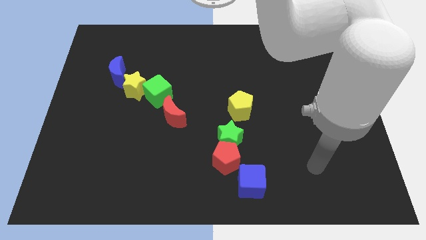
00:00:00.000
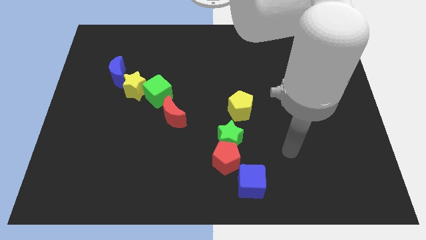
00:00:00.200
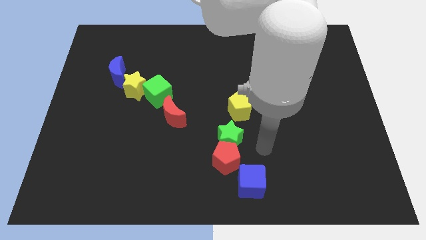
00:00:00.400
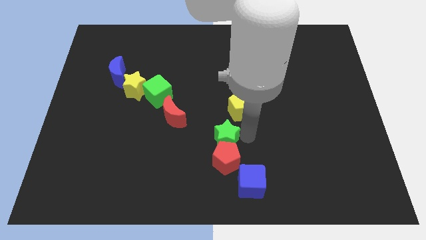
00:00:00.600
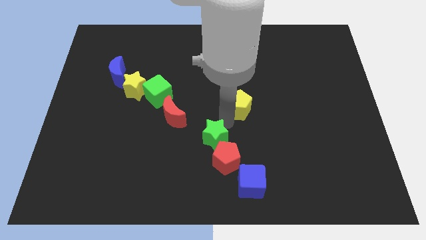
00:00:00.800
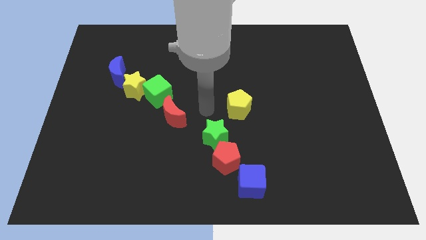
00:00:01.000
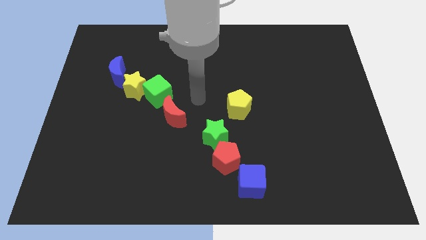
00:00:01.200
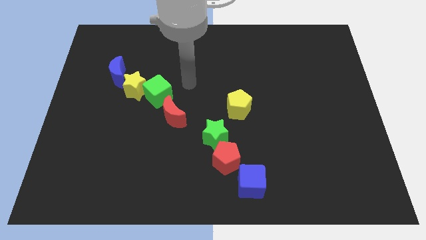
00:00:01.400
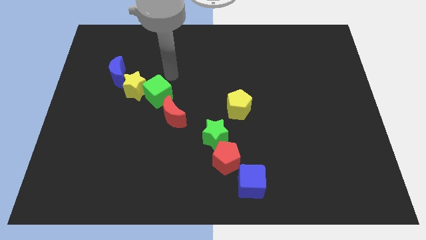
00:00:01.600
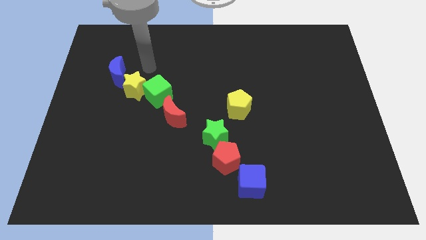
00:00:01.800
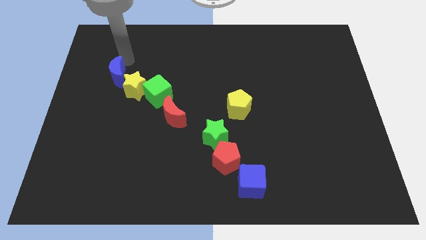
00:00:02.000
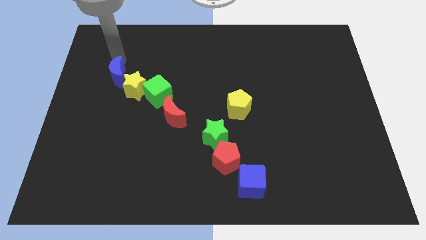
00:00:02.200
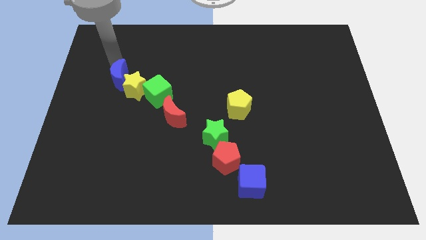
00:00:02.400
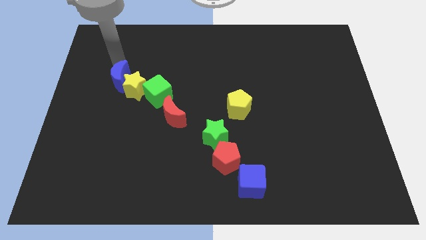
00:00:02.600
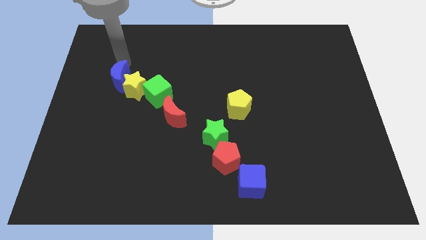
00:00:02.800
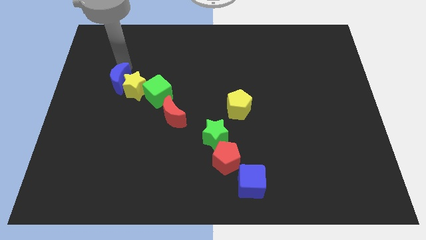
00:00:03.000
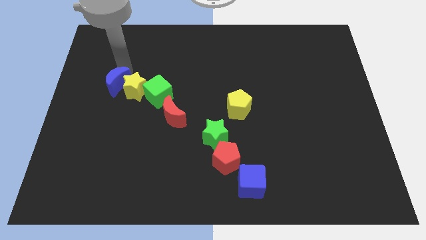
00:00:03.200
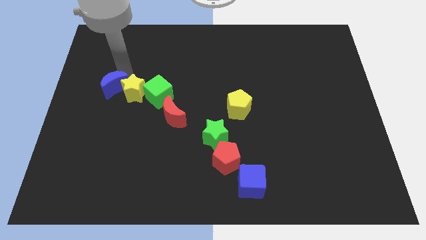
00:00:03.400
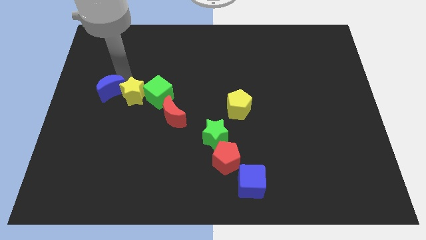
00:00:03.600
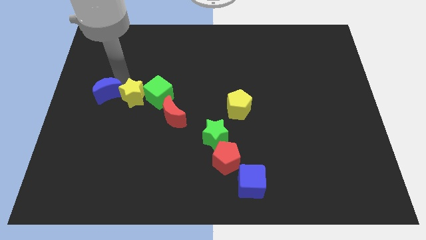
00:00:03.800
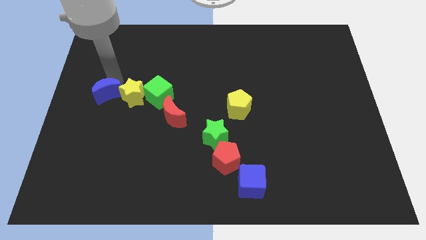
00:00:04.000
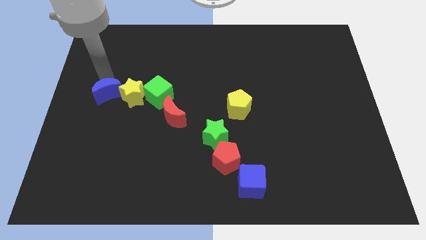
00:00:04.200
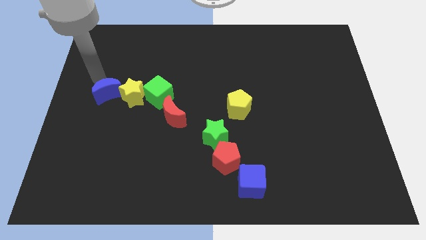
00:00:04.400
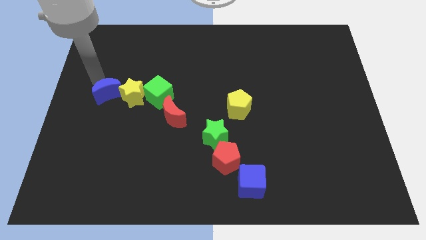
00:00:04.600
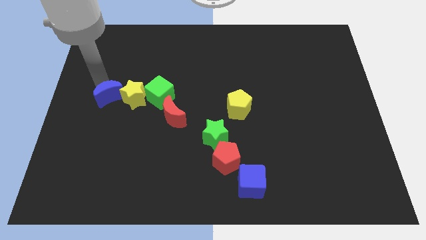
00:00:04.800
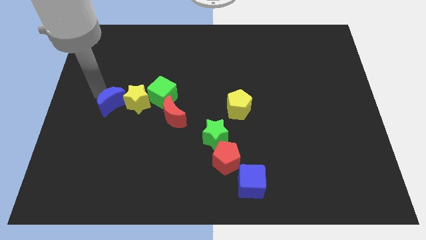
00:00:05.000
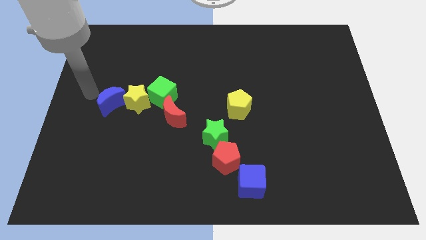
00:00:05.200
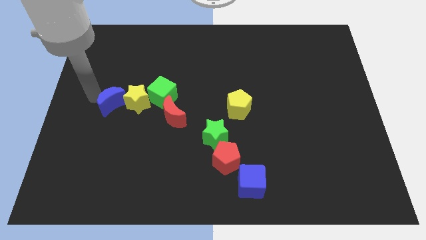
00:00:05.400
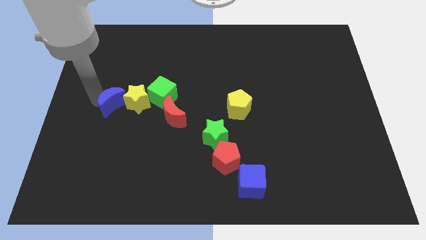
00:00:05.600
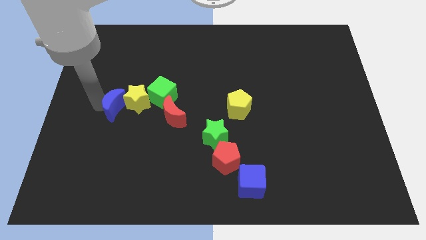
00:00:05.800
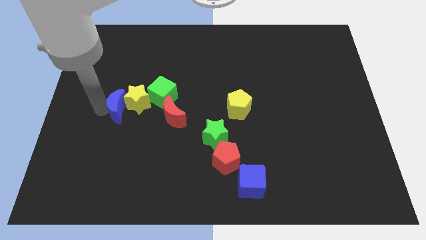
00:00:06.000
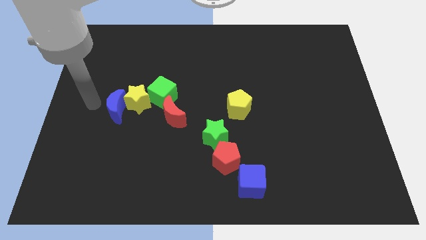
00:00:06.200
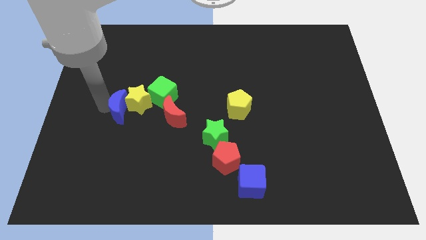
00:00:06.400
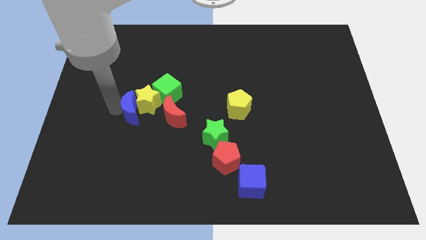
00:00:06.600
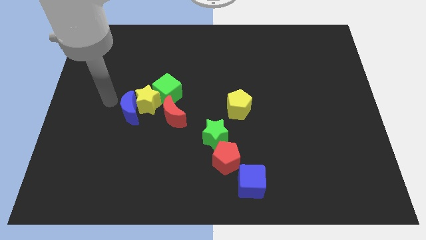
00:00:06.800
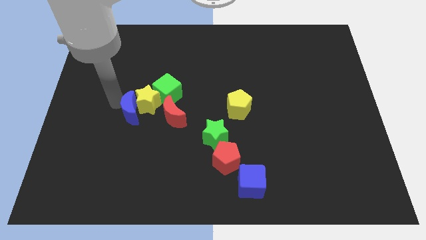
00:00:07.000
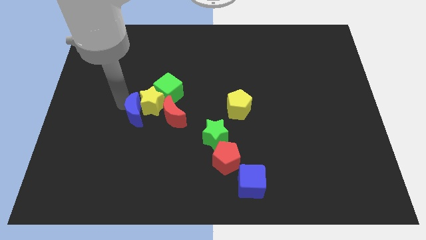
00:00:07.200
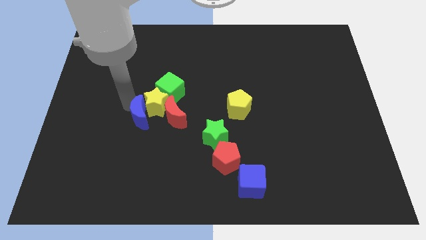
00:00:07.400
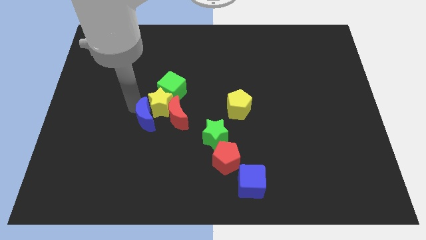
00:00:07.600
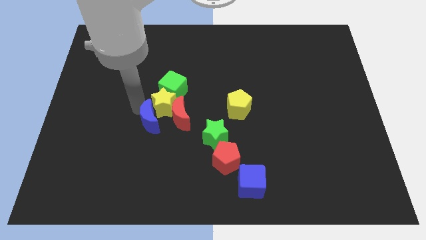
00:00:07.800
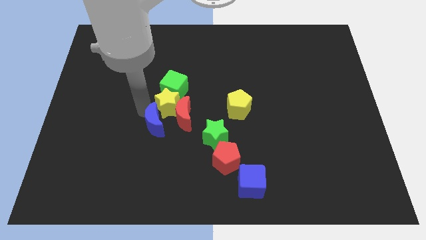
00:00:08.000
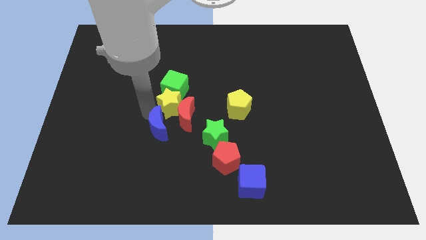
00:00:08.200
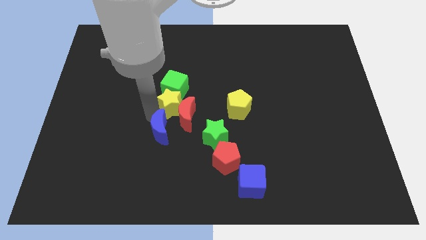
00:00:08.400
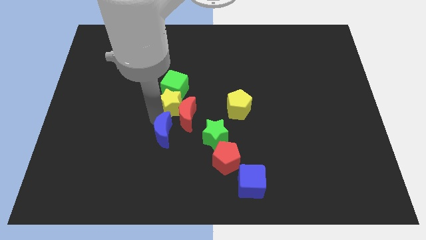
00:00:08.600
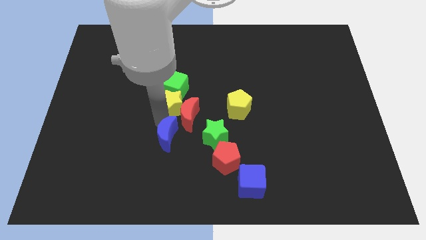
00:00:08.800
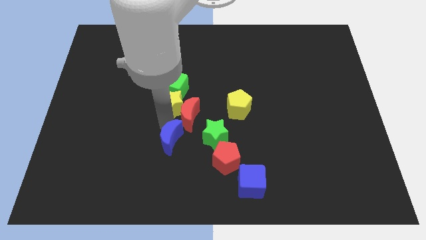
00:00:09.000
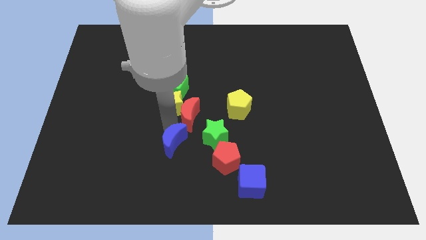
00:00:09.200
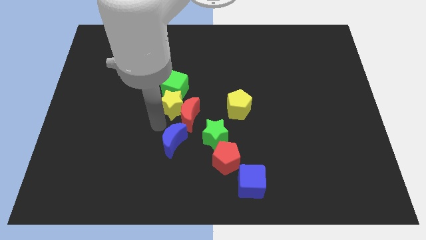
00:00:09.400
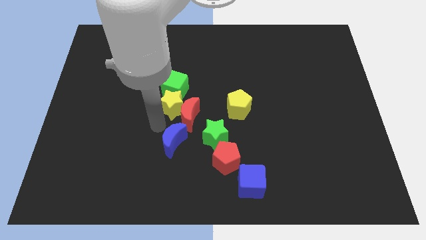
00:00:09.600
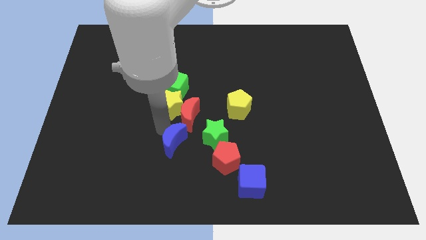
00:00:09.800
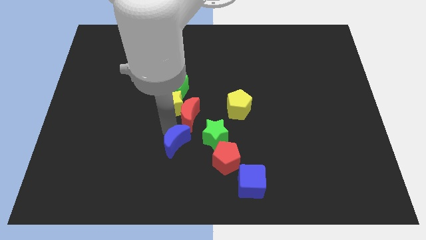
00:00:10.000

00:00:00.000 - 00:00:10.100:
put the blue moon to the bottom left of the green star

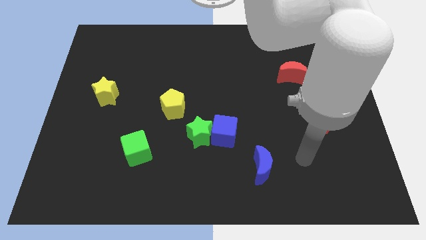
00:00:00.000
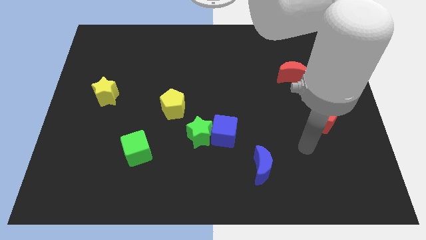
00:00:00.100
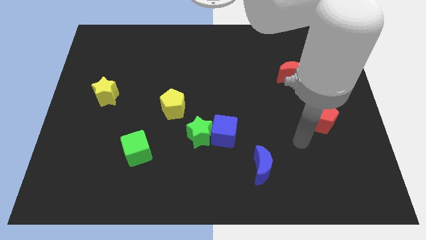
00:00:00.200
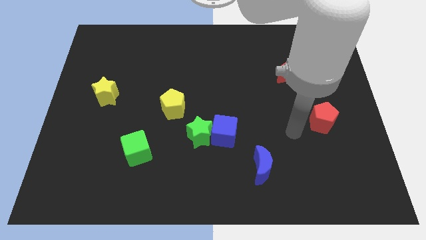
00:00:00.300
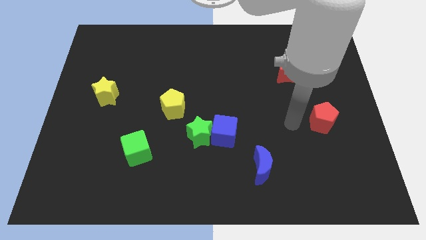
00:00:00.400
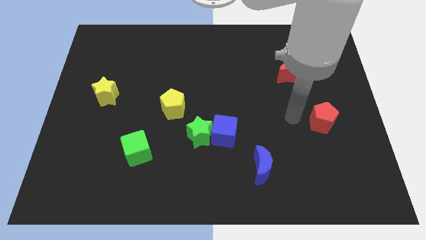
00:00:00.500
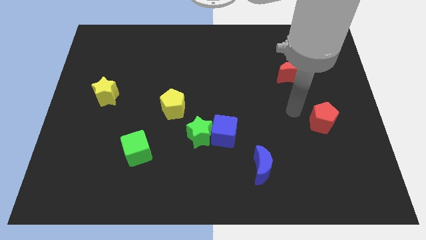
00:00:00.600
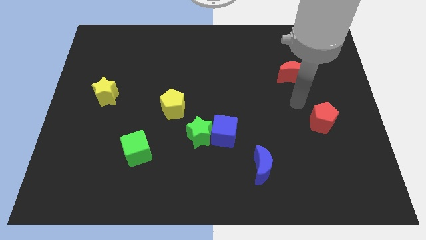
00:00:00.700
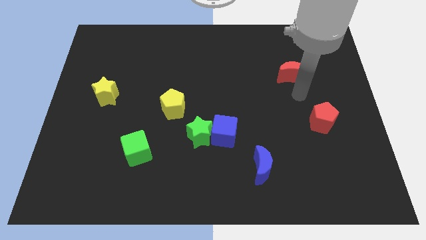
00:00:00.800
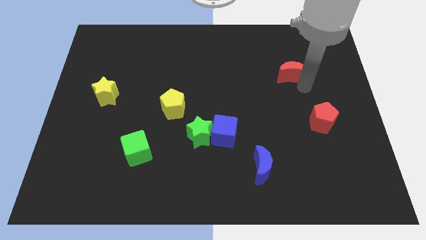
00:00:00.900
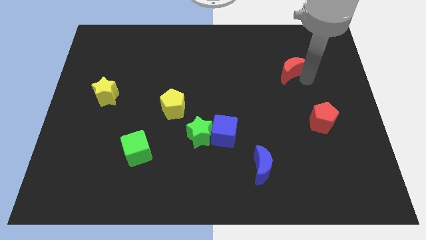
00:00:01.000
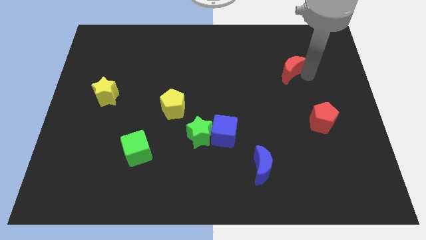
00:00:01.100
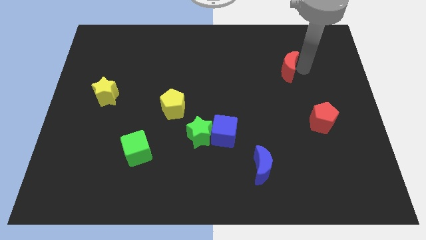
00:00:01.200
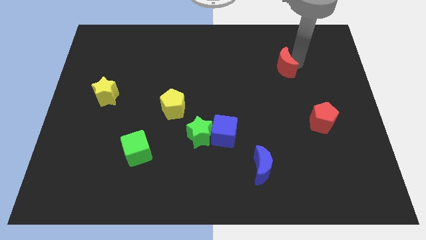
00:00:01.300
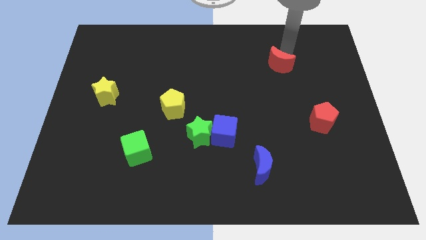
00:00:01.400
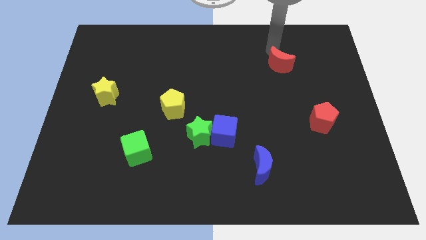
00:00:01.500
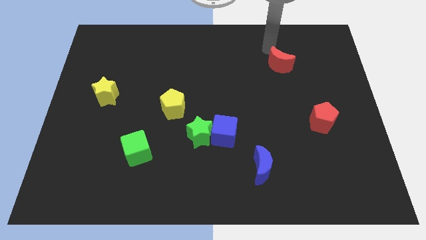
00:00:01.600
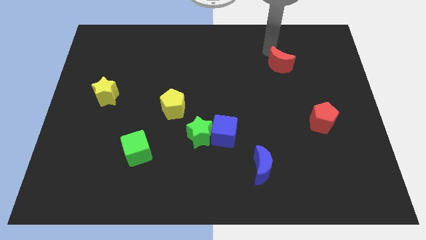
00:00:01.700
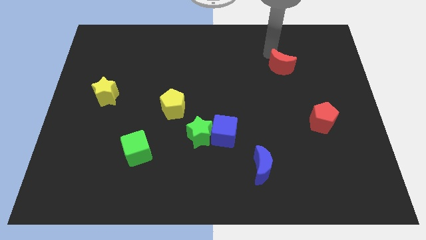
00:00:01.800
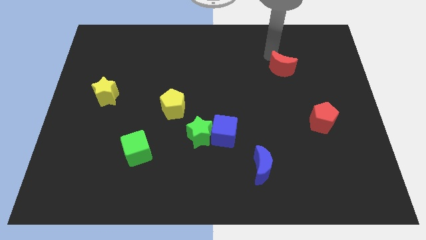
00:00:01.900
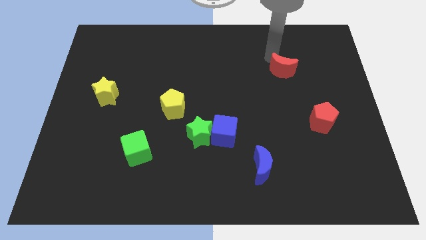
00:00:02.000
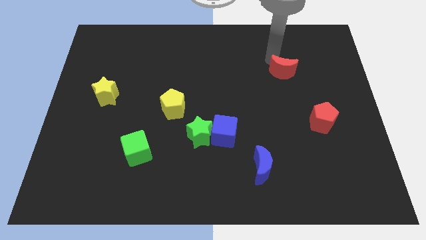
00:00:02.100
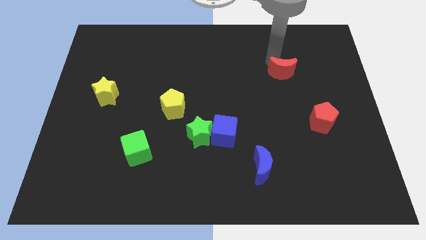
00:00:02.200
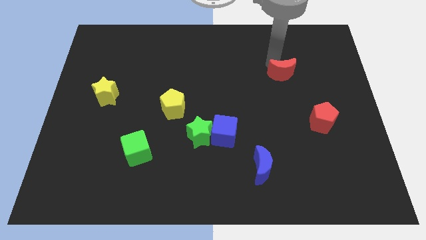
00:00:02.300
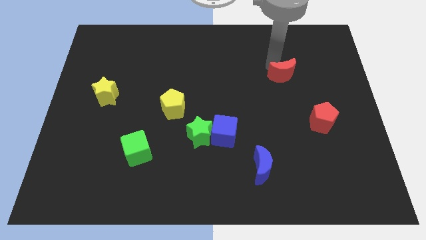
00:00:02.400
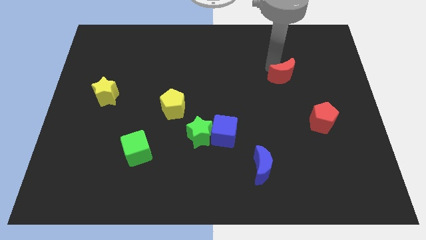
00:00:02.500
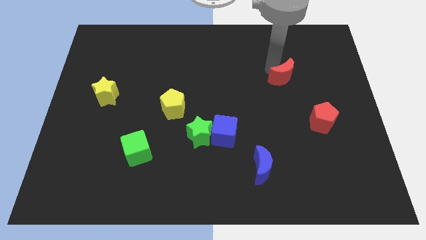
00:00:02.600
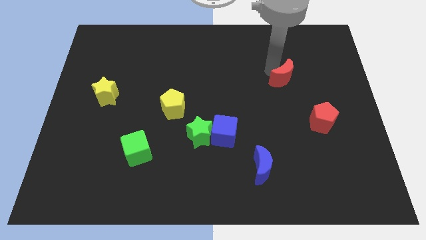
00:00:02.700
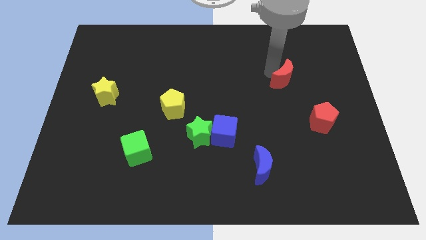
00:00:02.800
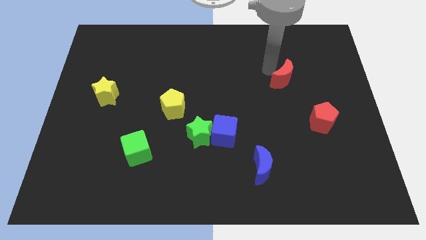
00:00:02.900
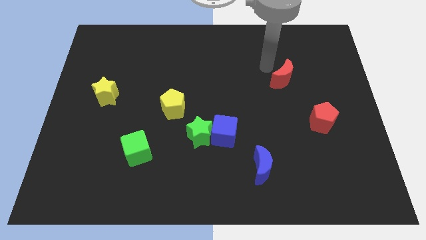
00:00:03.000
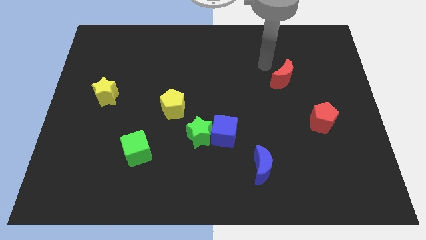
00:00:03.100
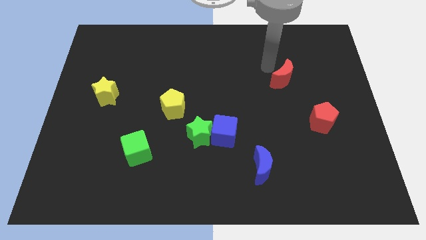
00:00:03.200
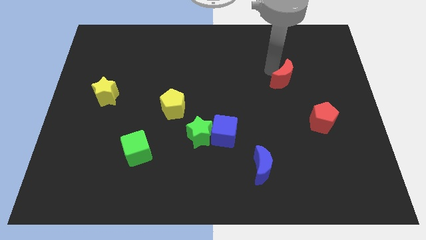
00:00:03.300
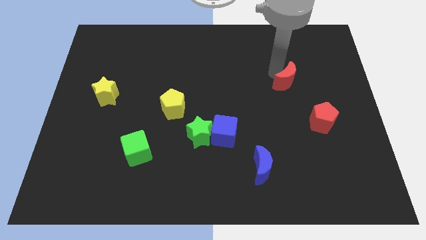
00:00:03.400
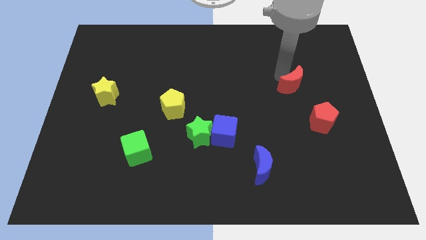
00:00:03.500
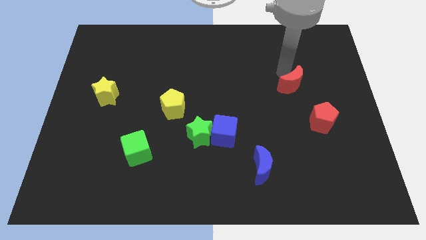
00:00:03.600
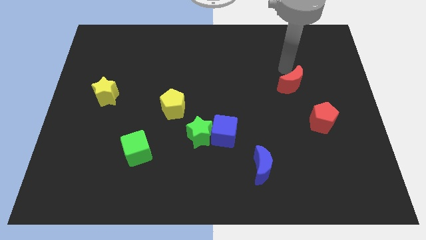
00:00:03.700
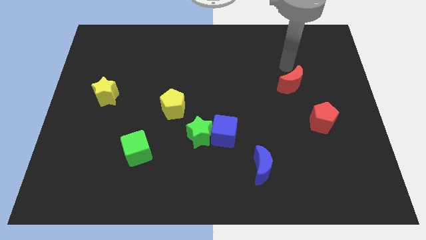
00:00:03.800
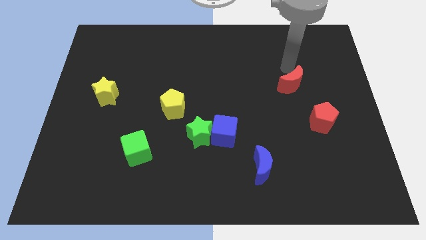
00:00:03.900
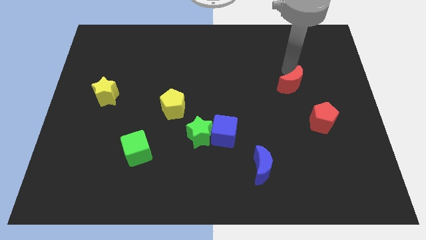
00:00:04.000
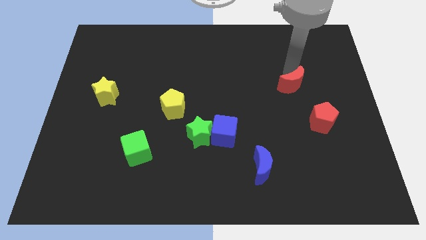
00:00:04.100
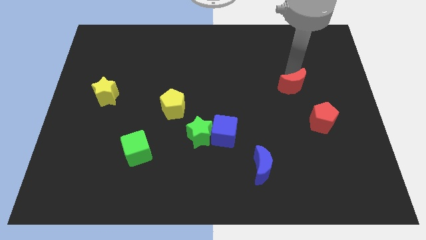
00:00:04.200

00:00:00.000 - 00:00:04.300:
move the red moon to the top left side of the red pentagon
